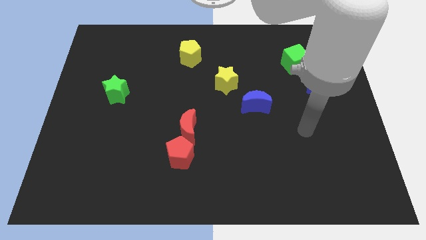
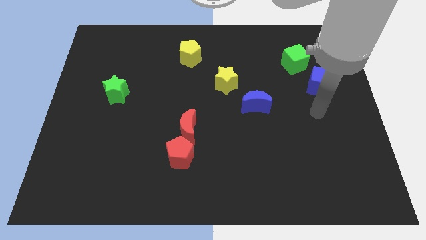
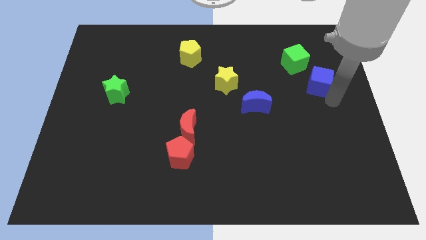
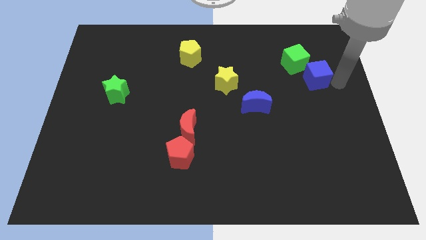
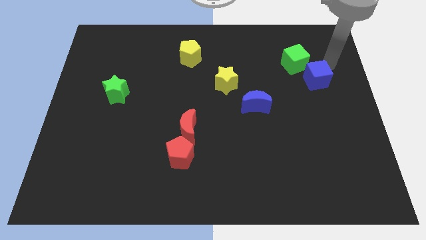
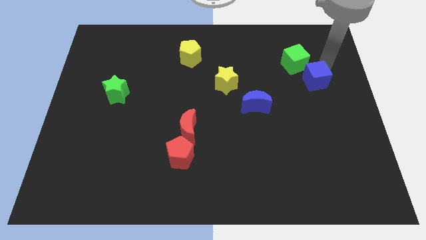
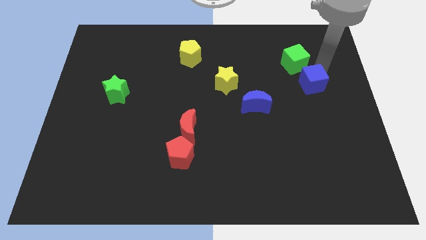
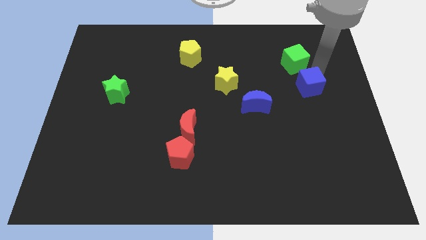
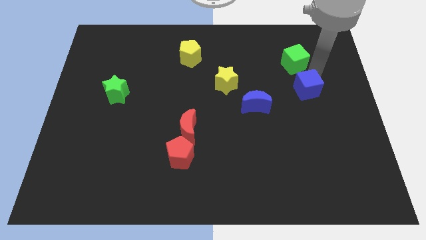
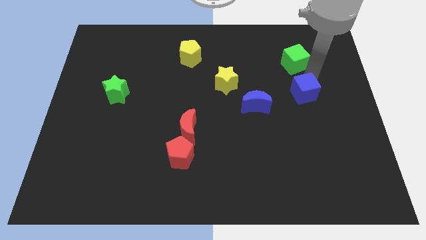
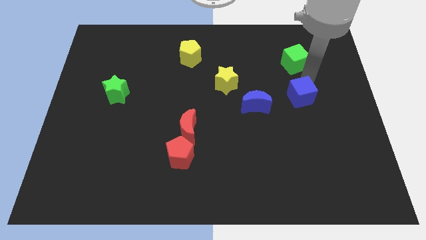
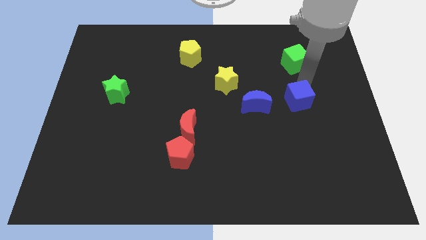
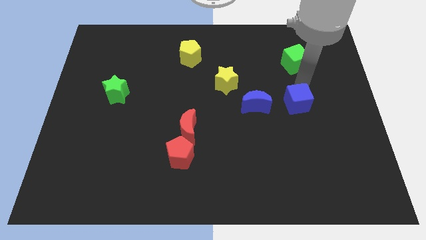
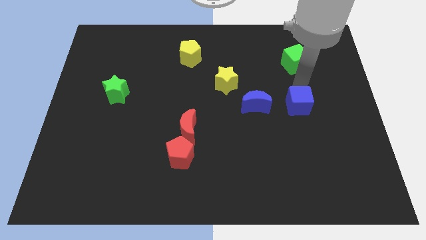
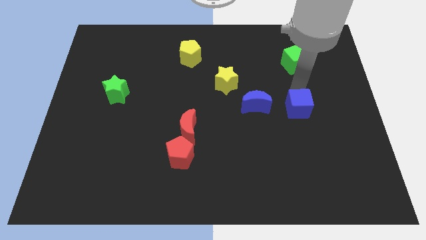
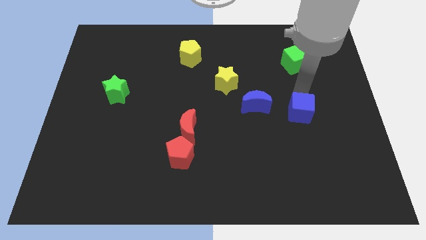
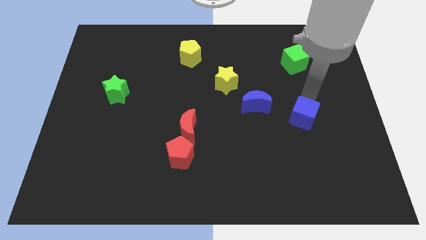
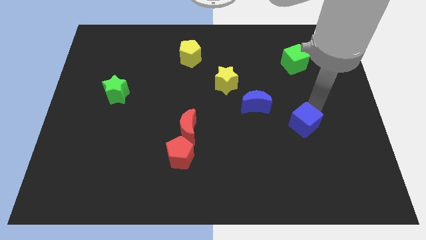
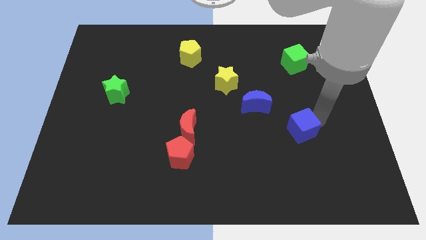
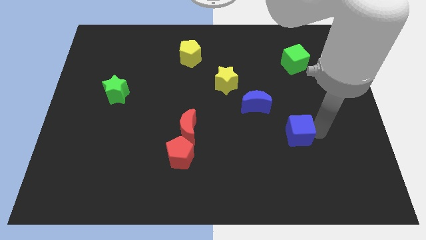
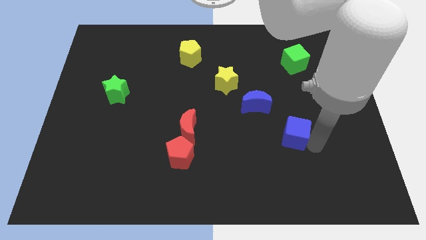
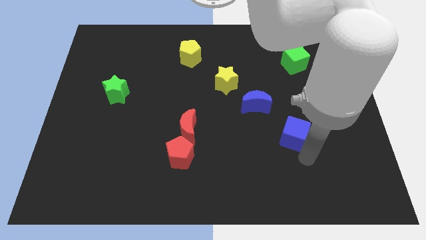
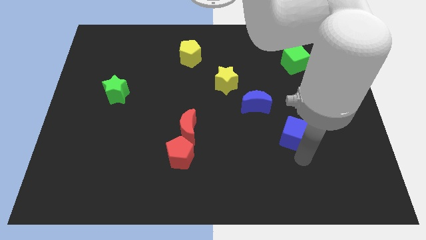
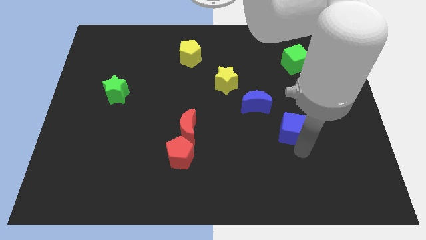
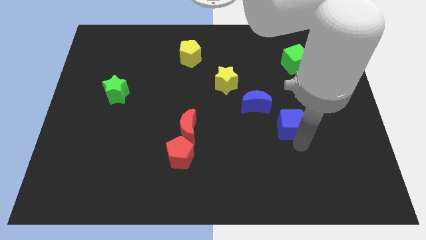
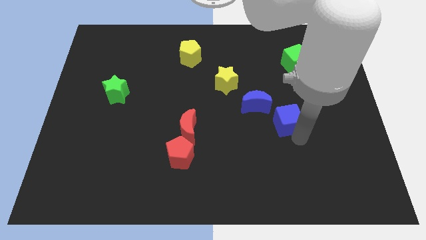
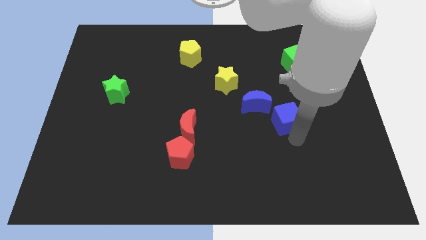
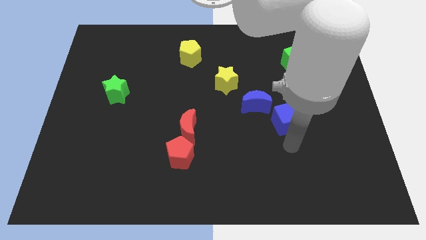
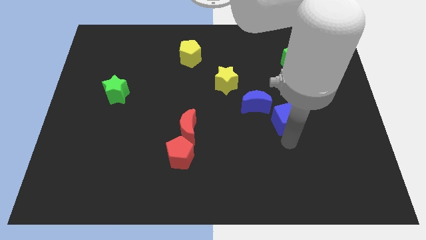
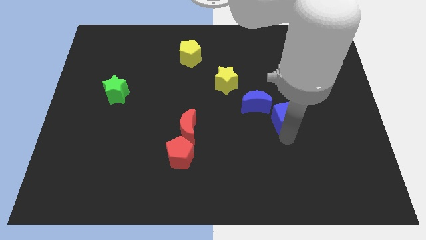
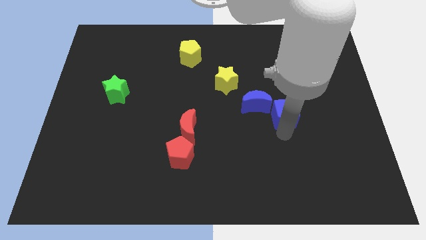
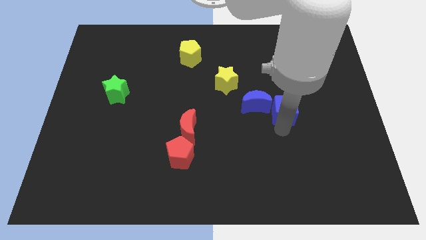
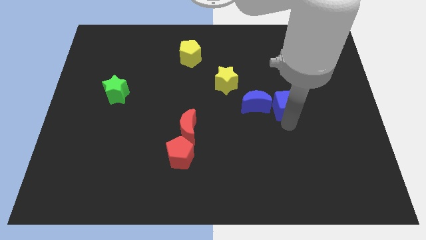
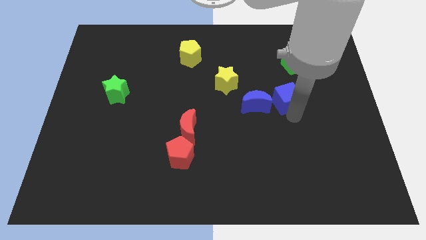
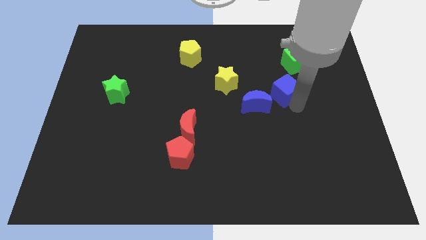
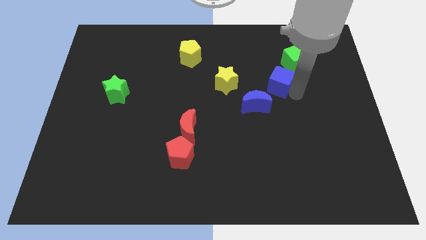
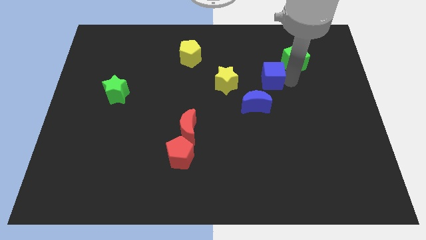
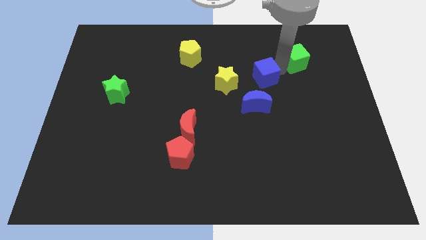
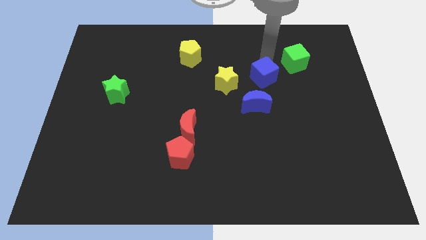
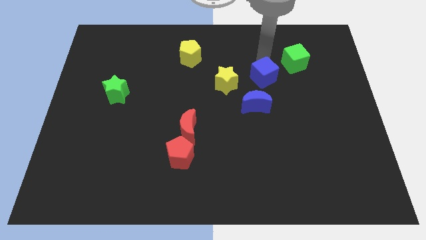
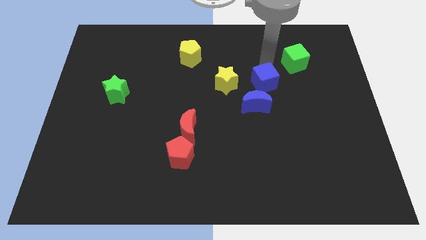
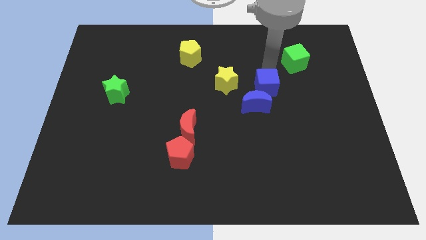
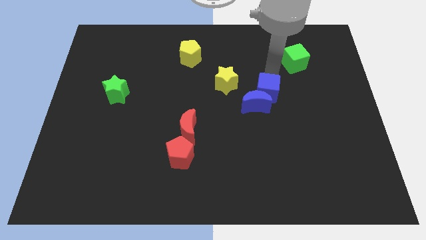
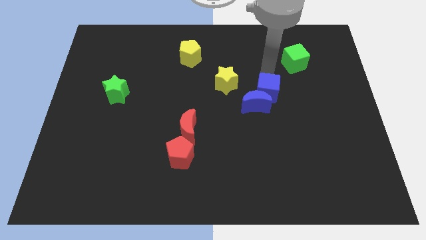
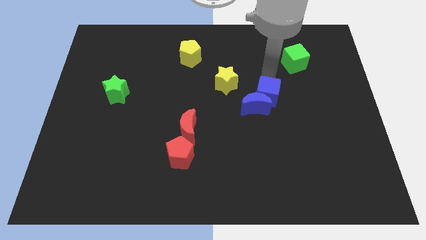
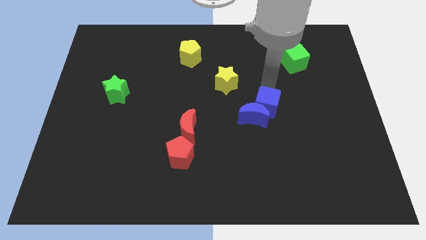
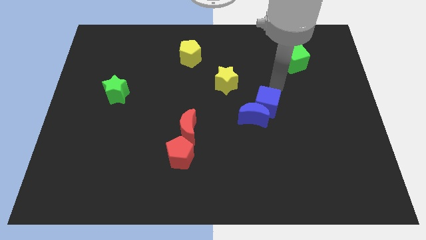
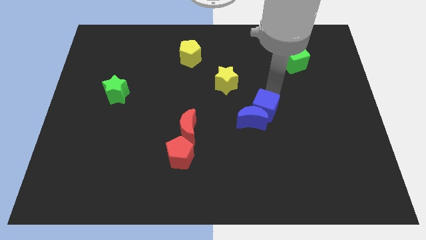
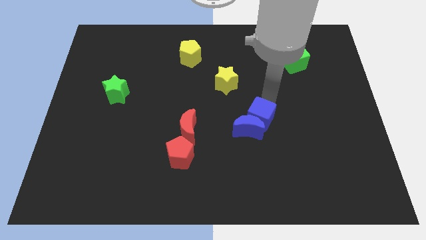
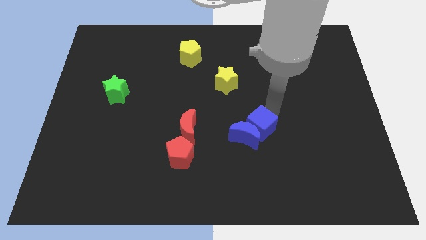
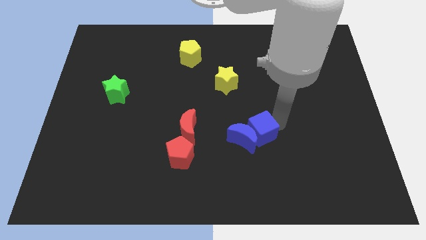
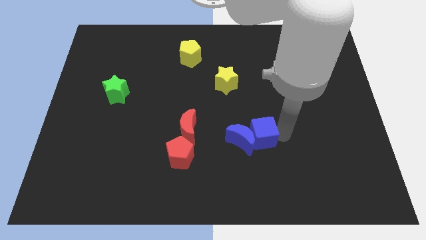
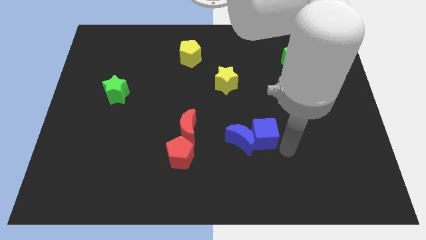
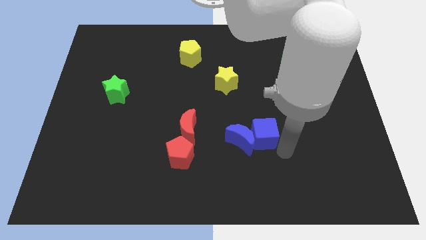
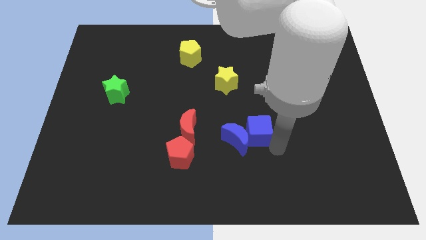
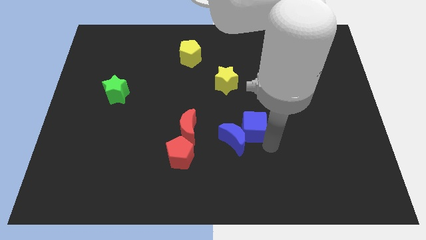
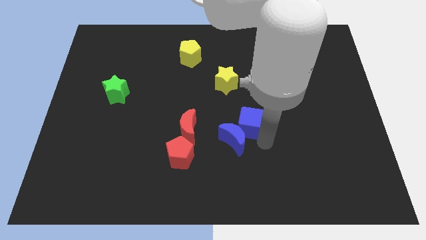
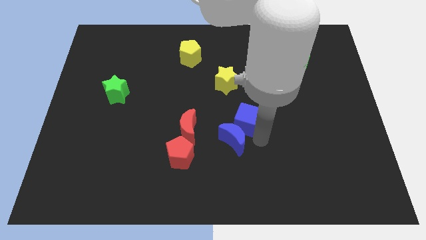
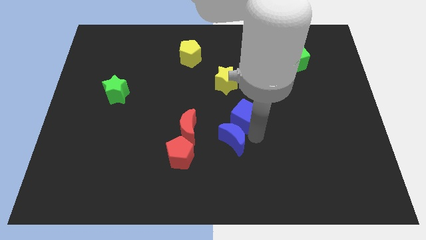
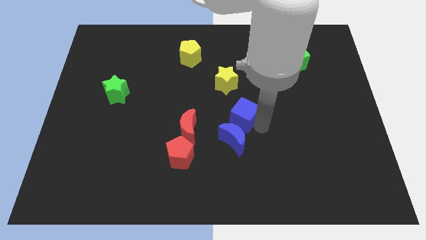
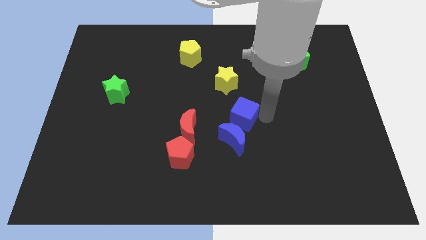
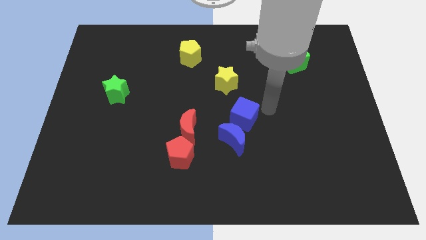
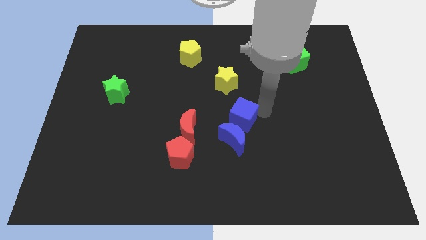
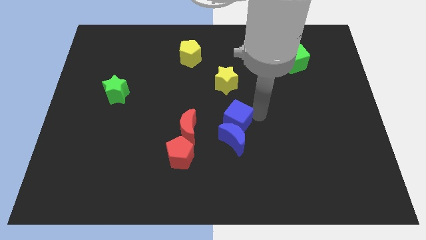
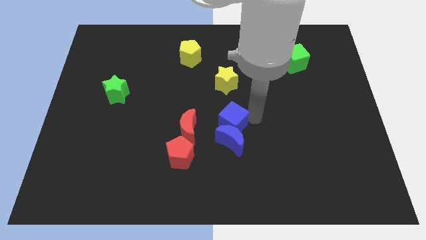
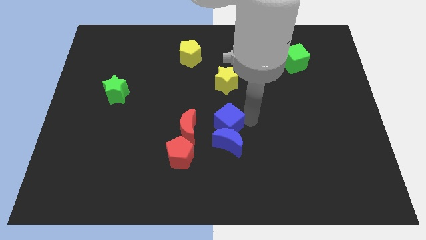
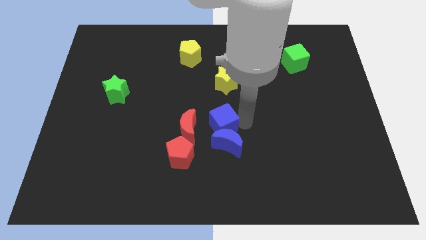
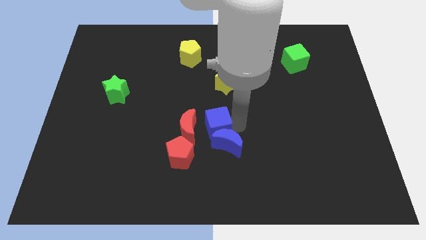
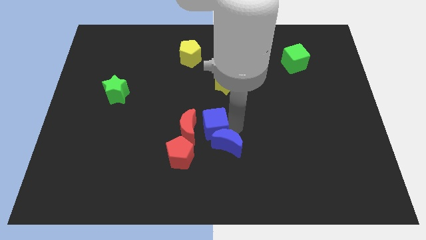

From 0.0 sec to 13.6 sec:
push the blue cube next to the red moon
